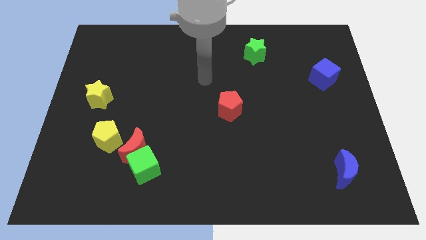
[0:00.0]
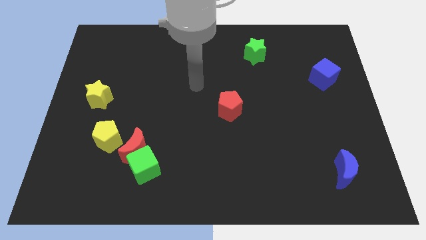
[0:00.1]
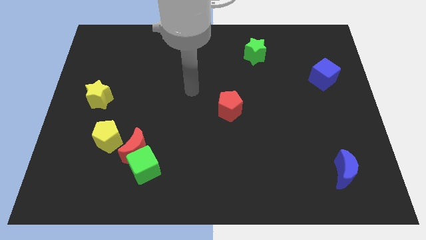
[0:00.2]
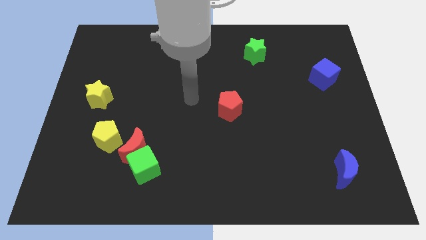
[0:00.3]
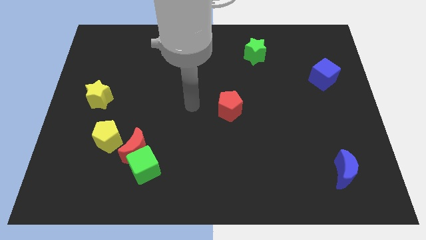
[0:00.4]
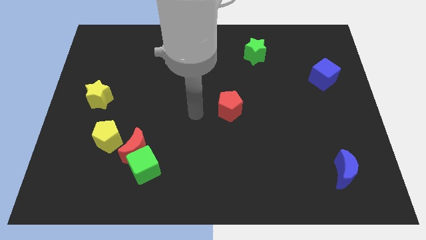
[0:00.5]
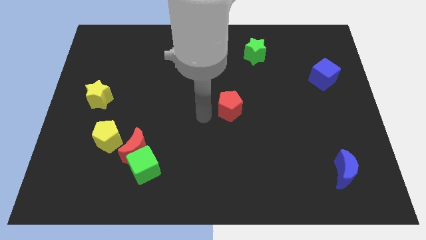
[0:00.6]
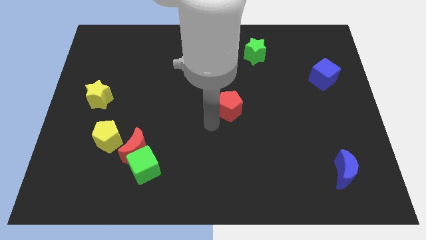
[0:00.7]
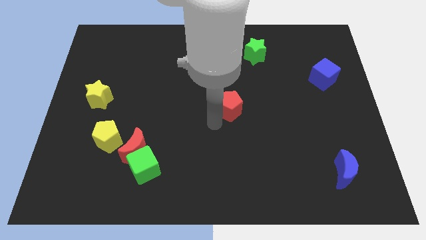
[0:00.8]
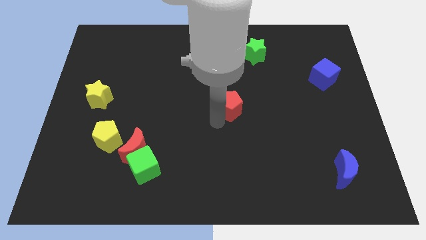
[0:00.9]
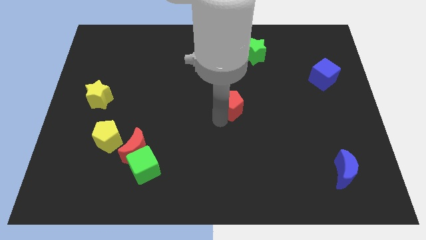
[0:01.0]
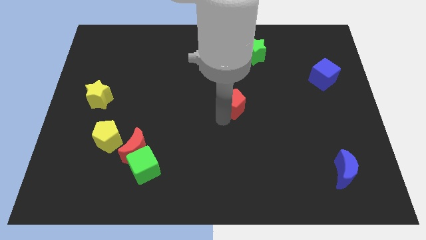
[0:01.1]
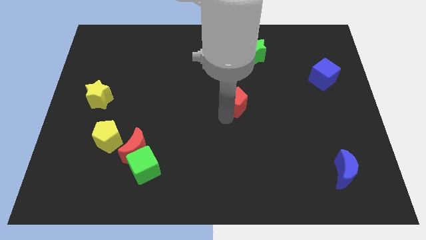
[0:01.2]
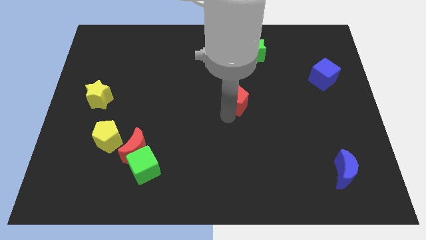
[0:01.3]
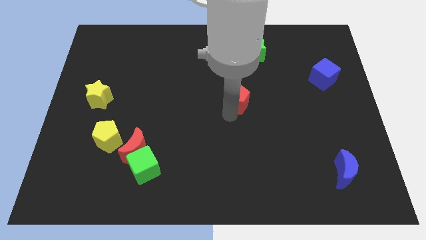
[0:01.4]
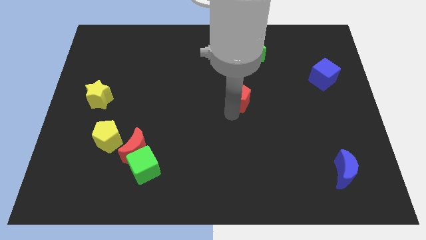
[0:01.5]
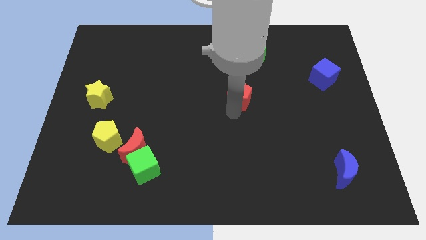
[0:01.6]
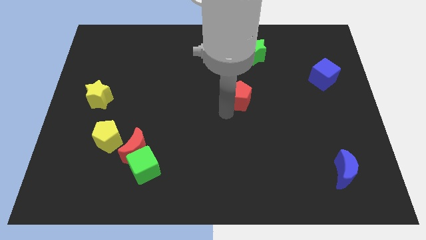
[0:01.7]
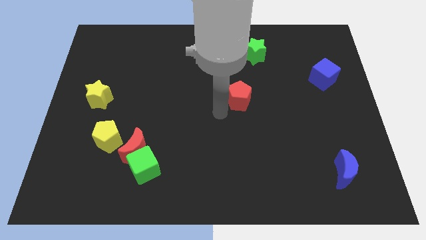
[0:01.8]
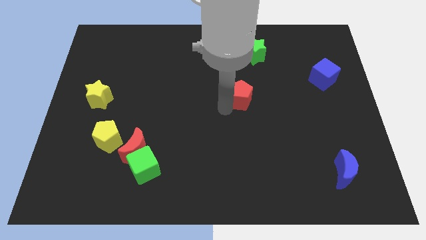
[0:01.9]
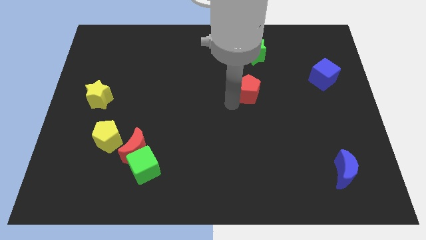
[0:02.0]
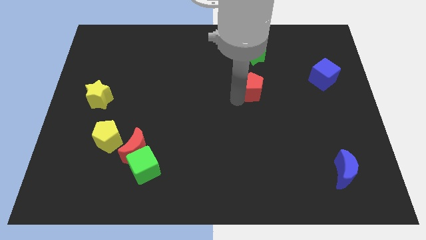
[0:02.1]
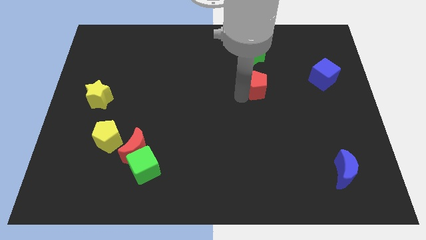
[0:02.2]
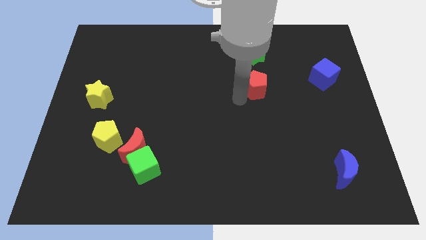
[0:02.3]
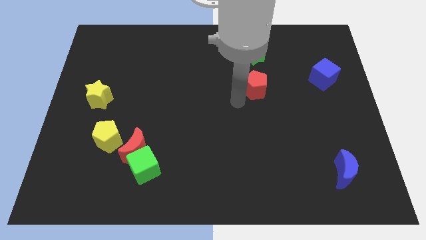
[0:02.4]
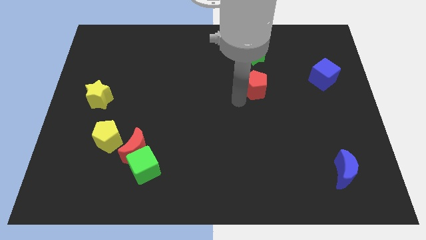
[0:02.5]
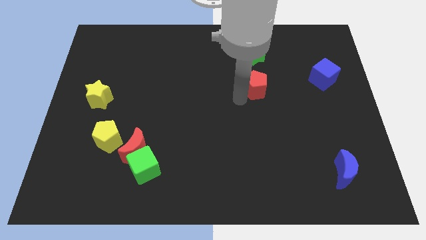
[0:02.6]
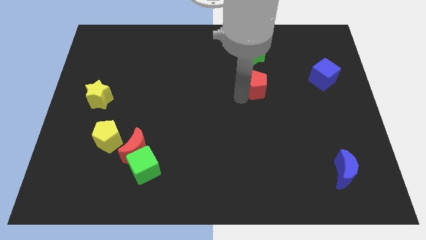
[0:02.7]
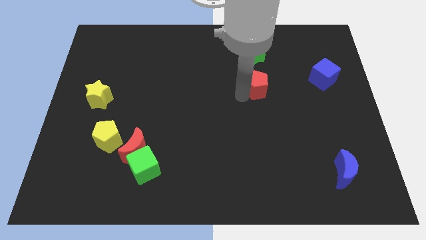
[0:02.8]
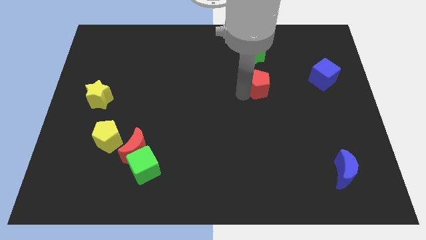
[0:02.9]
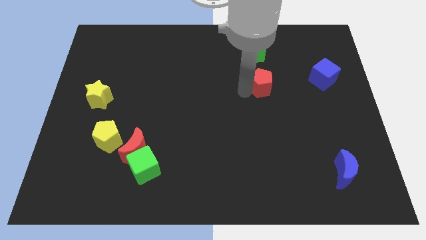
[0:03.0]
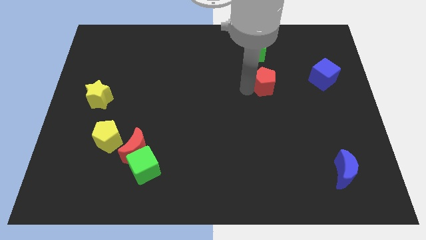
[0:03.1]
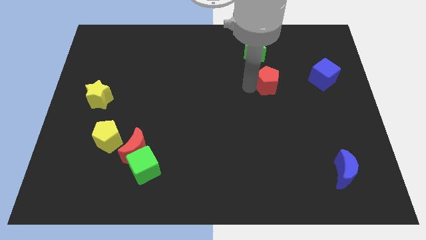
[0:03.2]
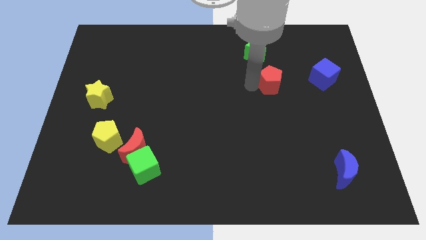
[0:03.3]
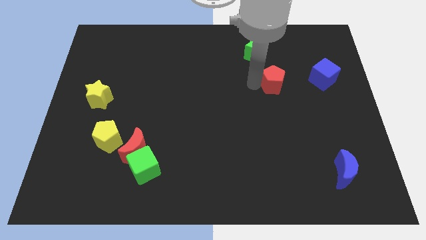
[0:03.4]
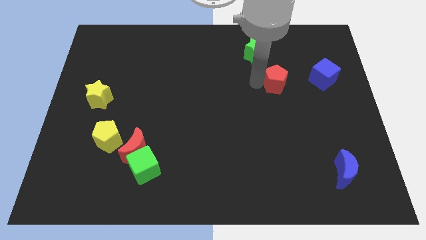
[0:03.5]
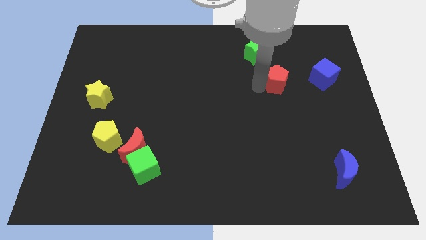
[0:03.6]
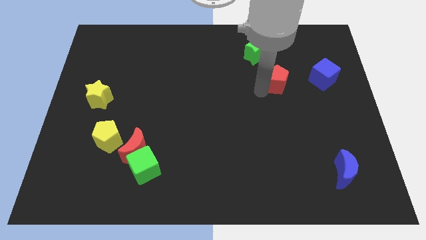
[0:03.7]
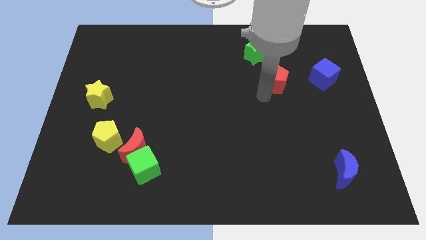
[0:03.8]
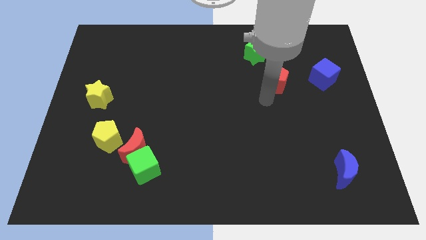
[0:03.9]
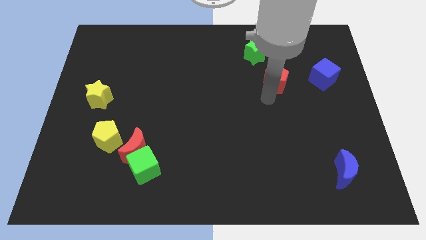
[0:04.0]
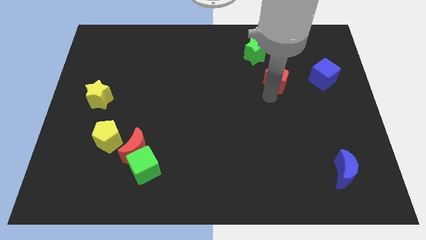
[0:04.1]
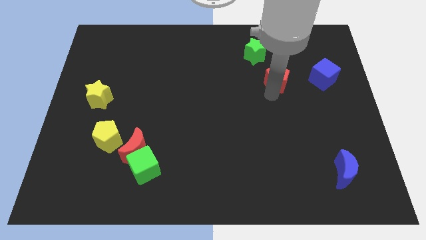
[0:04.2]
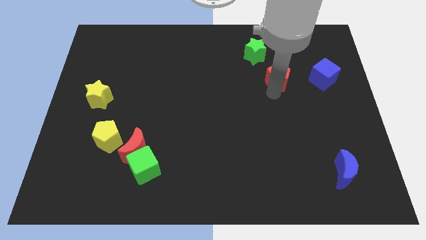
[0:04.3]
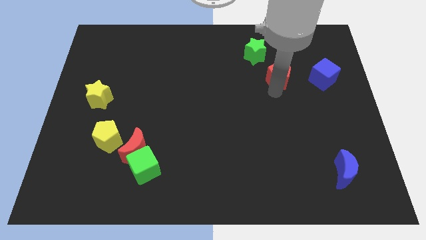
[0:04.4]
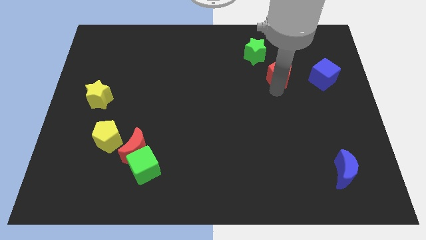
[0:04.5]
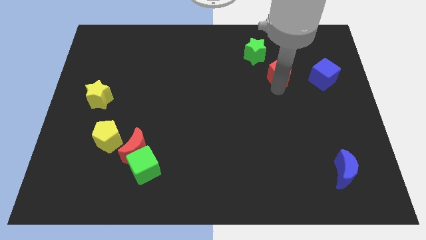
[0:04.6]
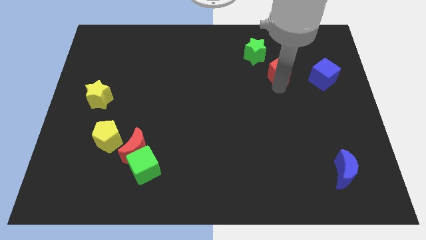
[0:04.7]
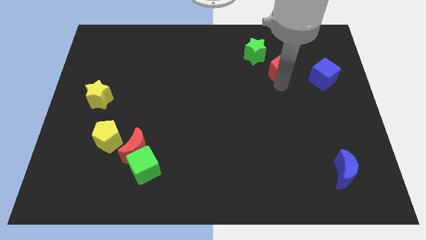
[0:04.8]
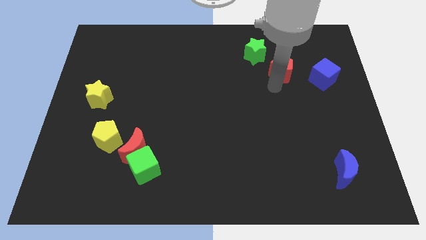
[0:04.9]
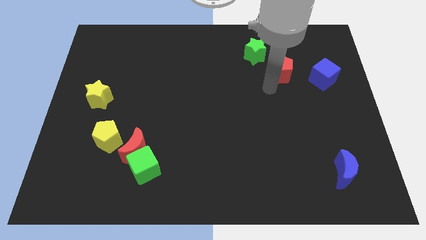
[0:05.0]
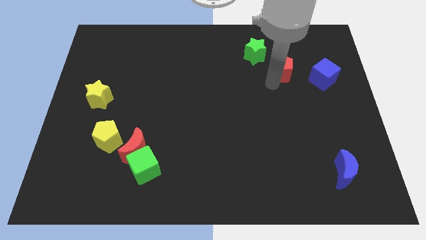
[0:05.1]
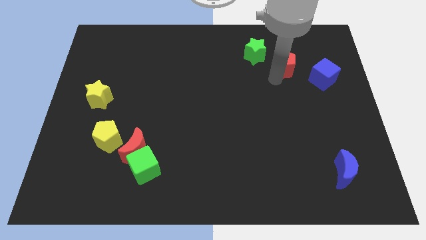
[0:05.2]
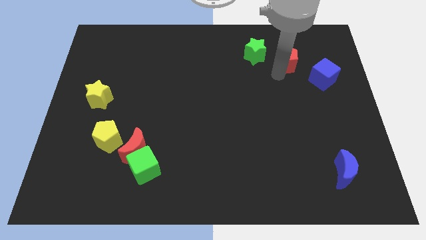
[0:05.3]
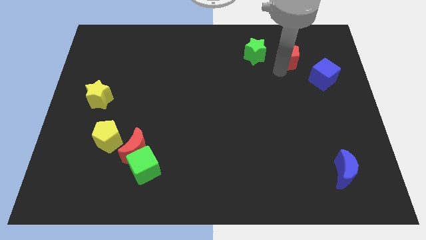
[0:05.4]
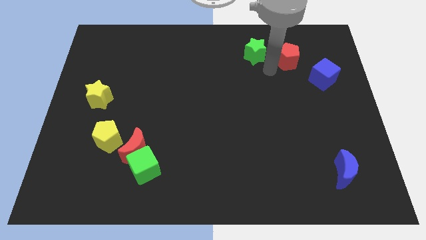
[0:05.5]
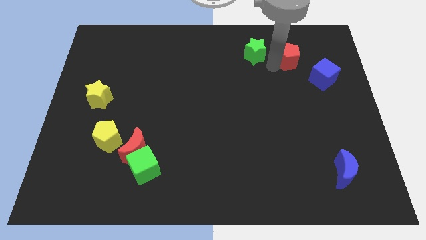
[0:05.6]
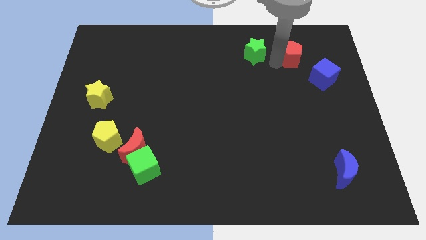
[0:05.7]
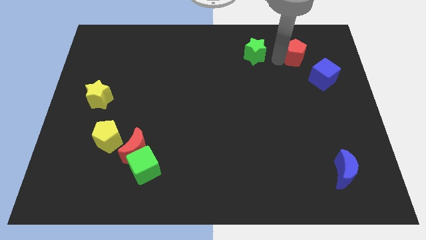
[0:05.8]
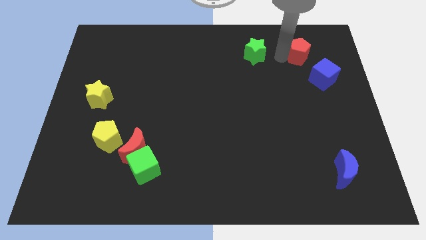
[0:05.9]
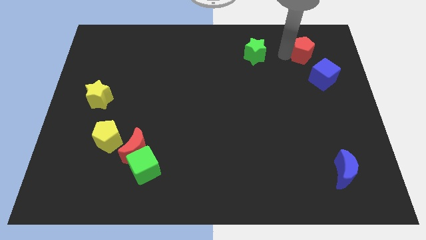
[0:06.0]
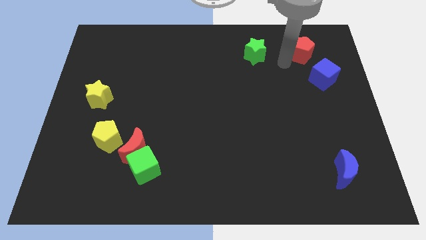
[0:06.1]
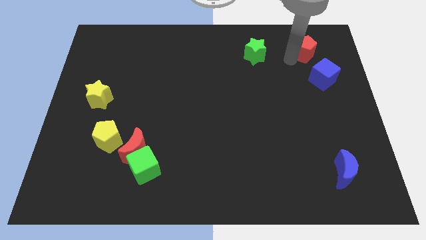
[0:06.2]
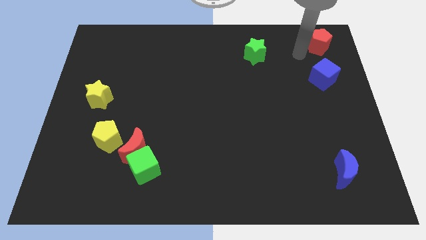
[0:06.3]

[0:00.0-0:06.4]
slide the red pentagon to the top right of the board
